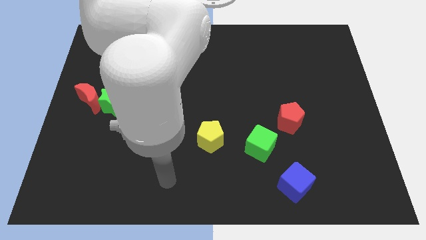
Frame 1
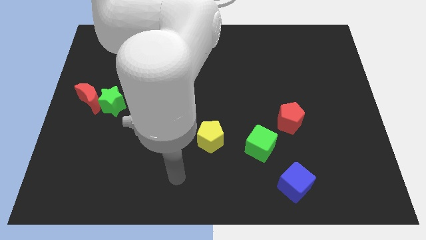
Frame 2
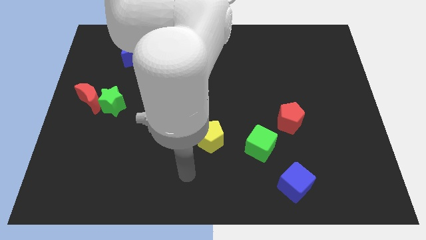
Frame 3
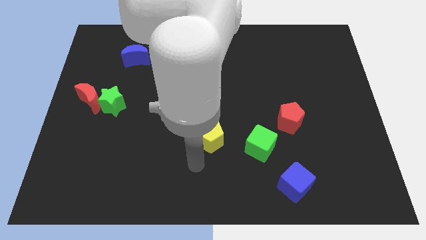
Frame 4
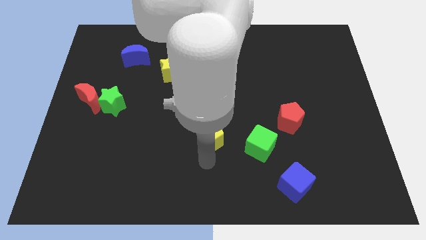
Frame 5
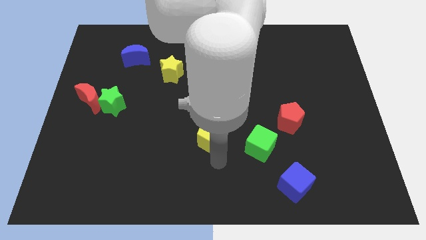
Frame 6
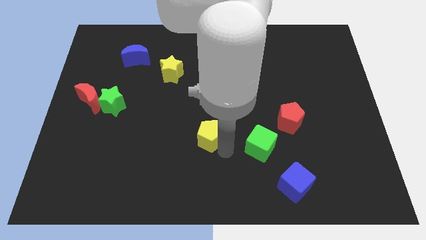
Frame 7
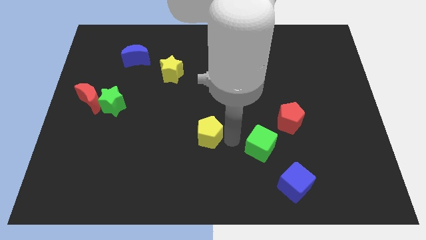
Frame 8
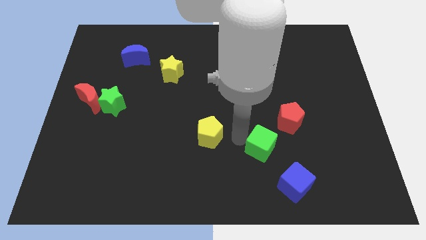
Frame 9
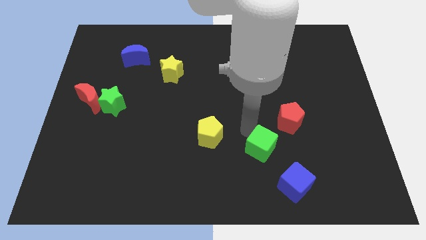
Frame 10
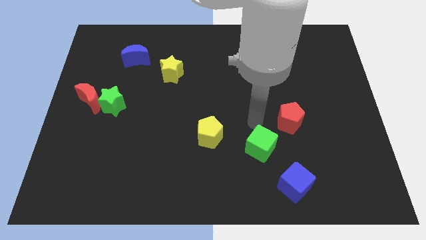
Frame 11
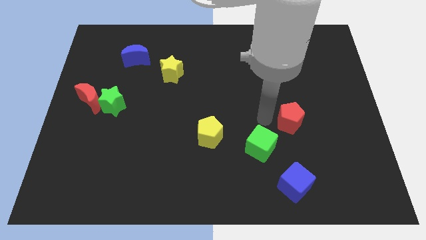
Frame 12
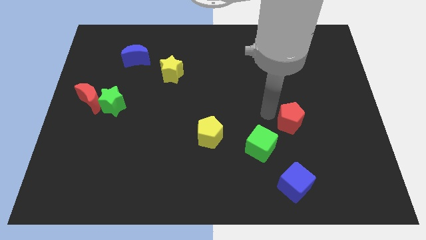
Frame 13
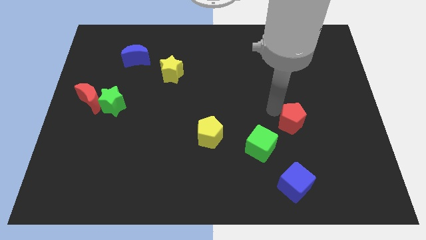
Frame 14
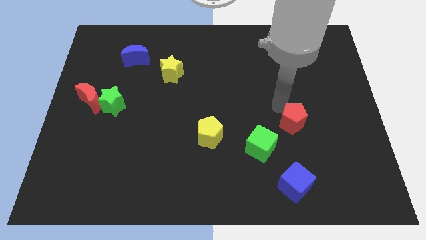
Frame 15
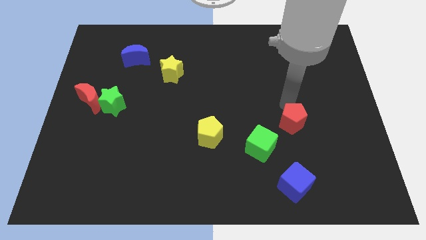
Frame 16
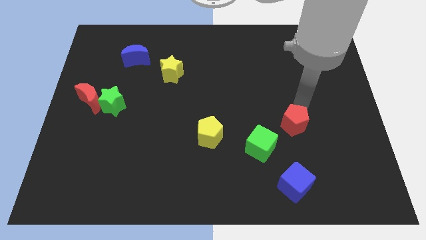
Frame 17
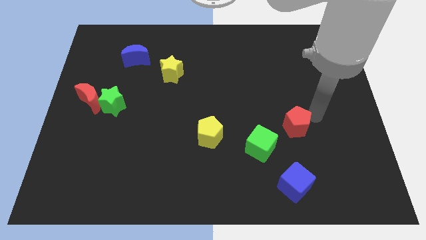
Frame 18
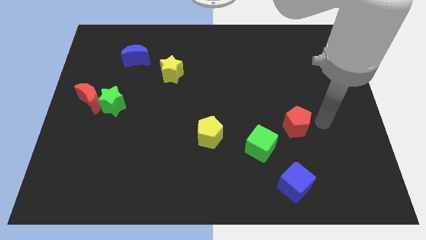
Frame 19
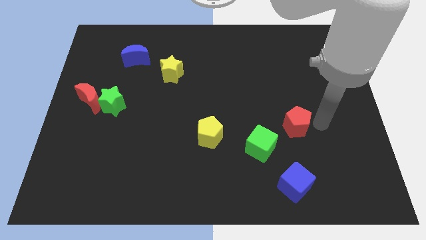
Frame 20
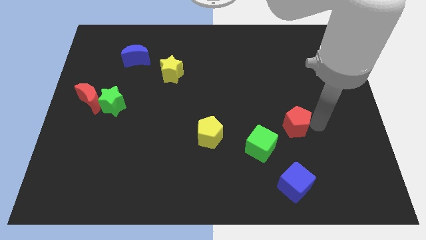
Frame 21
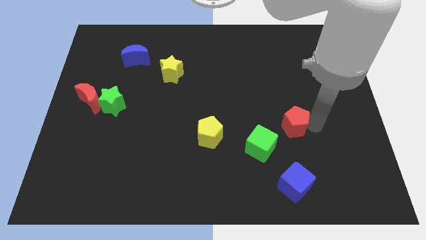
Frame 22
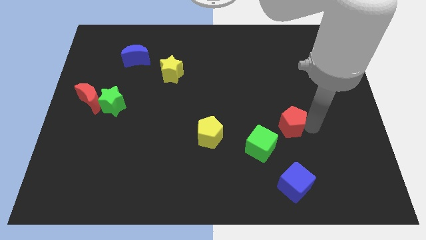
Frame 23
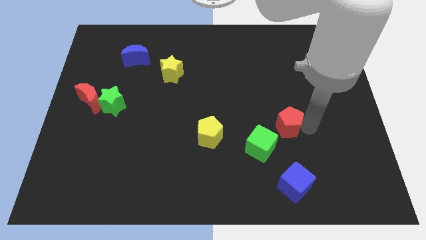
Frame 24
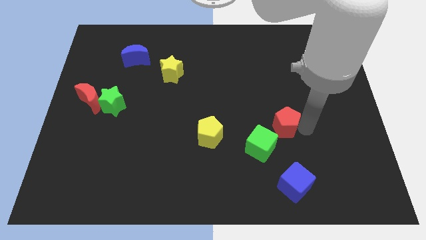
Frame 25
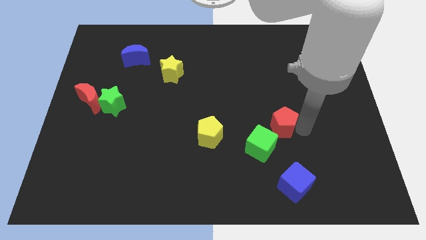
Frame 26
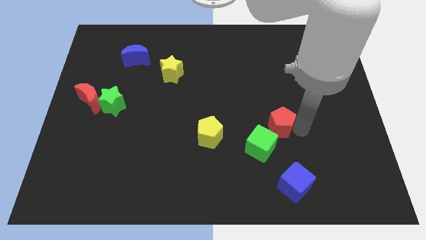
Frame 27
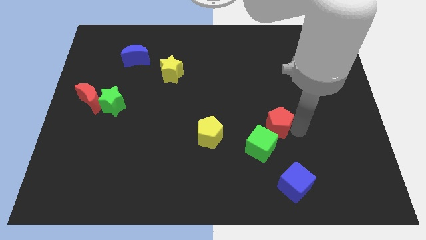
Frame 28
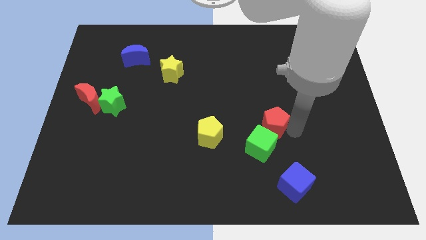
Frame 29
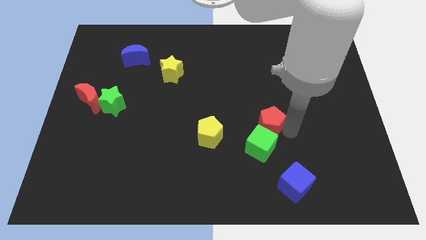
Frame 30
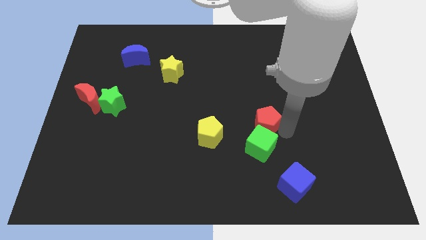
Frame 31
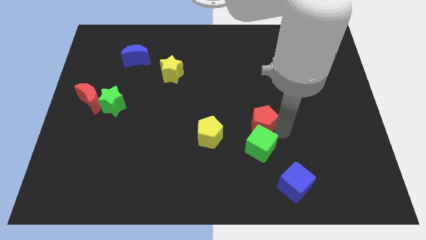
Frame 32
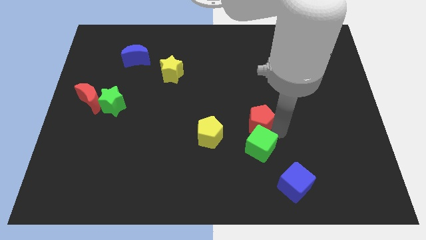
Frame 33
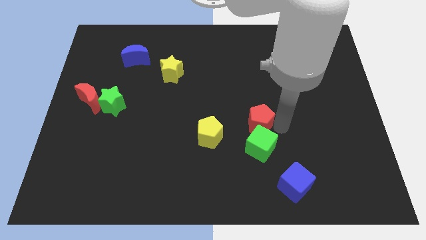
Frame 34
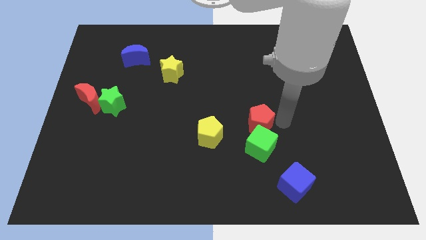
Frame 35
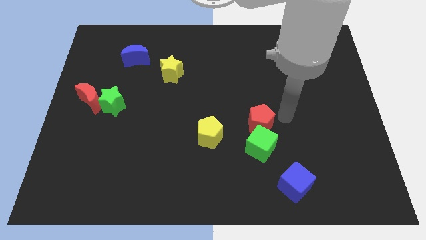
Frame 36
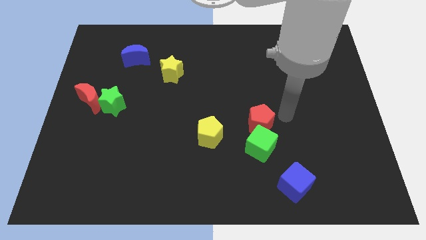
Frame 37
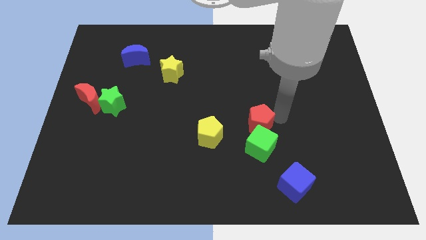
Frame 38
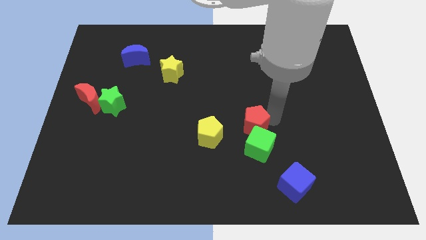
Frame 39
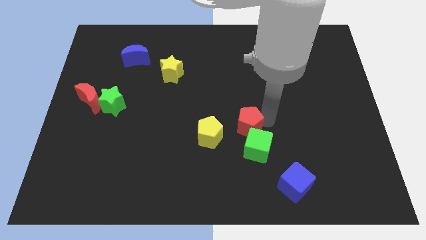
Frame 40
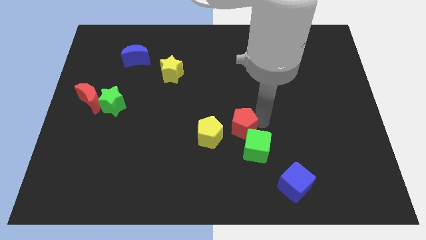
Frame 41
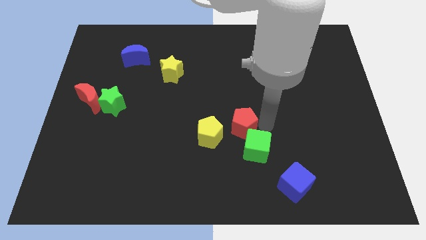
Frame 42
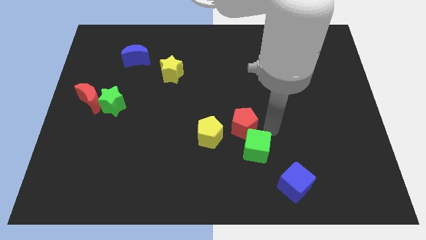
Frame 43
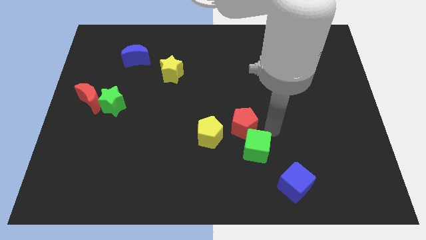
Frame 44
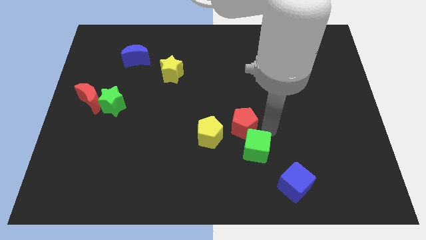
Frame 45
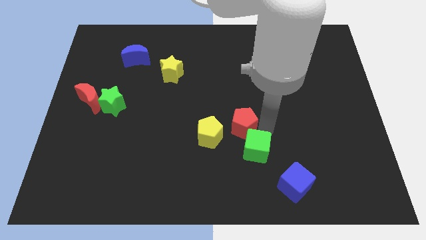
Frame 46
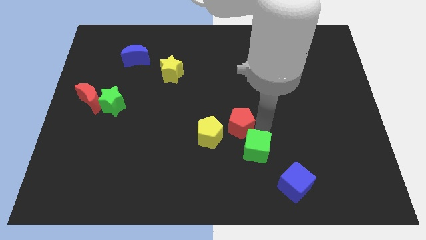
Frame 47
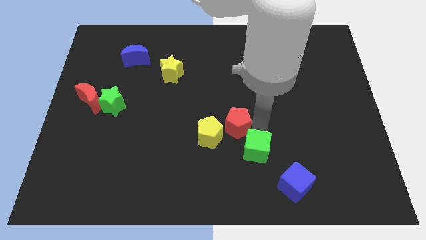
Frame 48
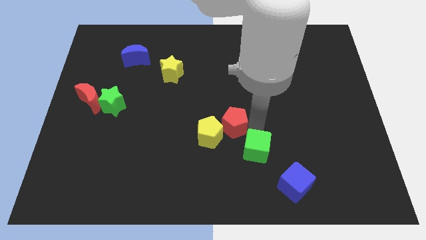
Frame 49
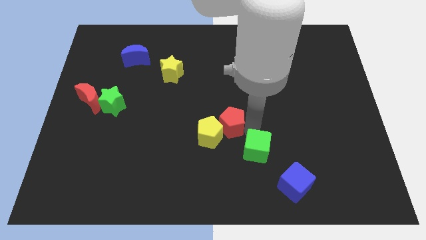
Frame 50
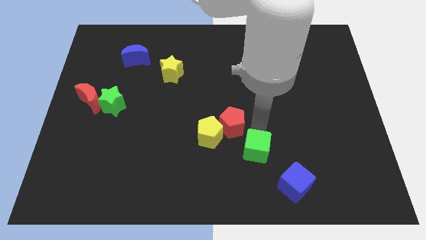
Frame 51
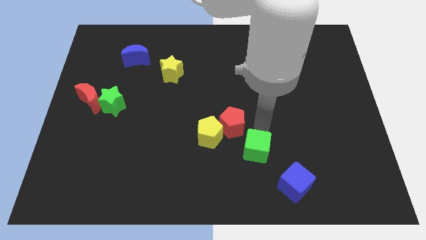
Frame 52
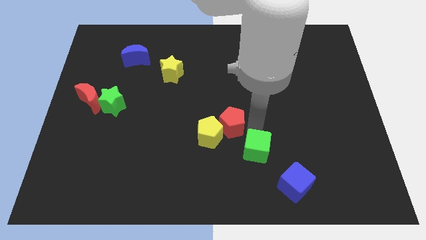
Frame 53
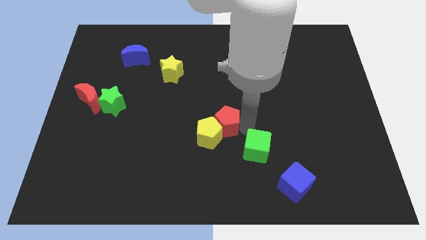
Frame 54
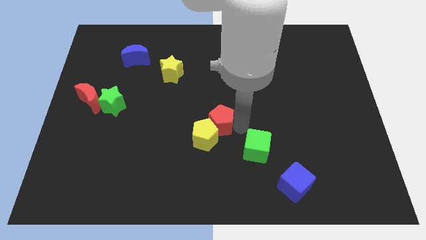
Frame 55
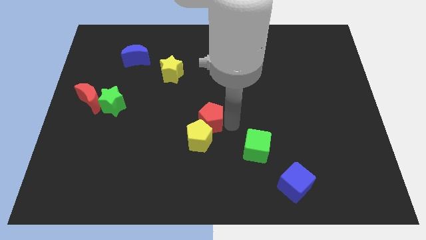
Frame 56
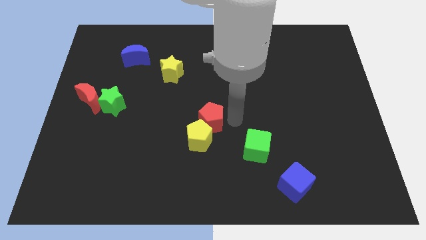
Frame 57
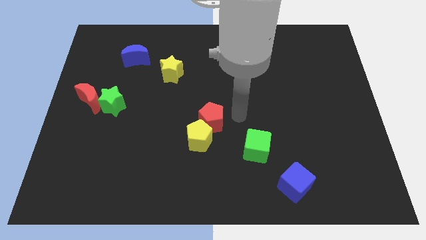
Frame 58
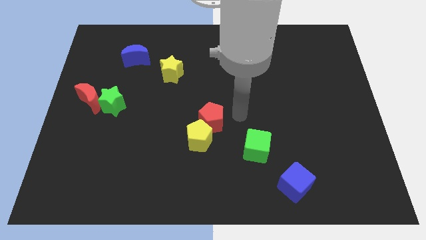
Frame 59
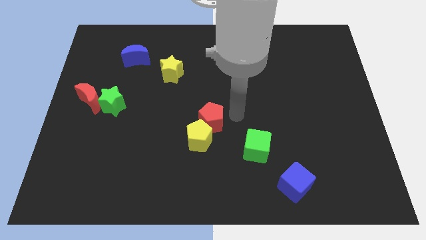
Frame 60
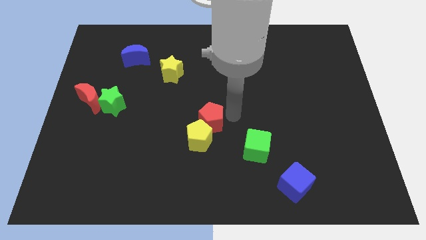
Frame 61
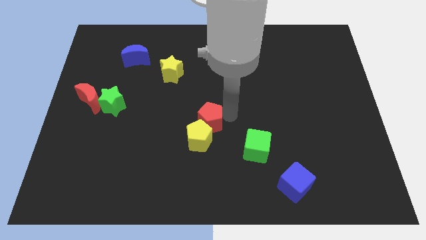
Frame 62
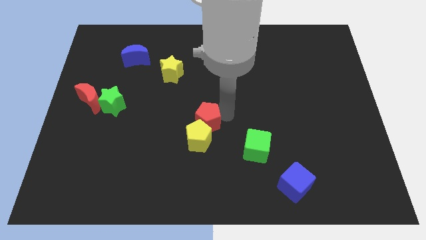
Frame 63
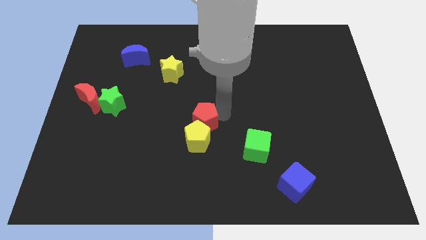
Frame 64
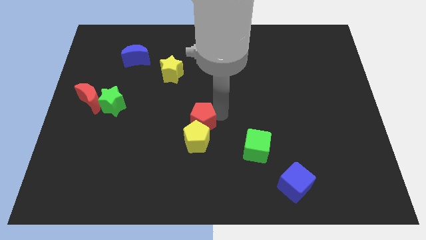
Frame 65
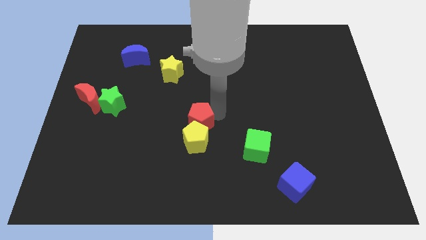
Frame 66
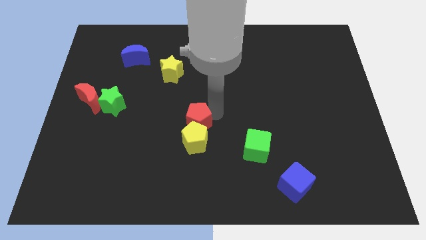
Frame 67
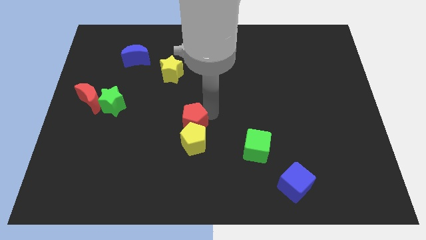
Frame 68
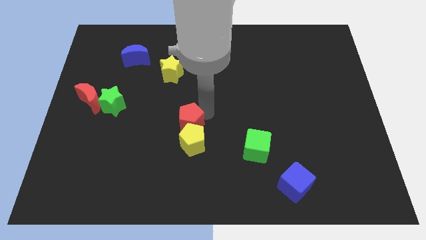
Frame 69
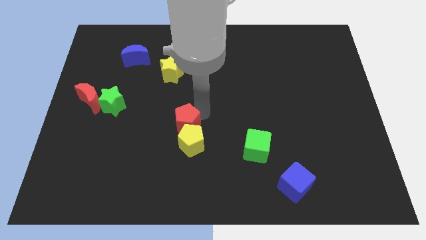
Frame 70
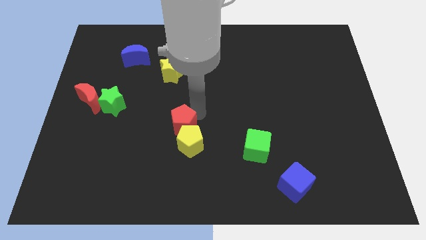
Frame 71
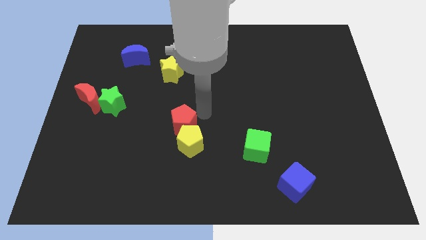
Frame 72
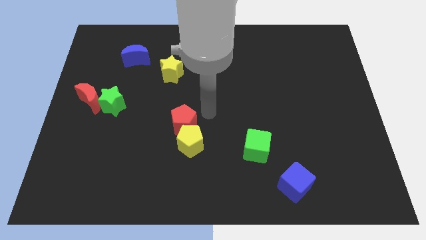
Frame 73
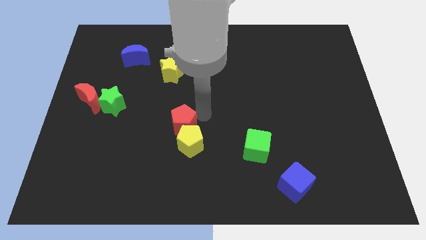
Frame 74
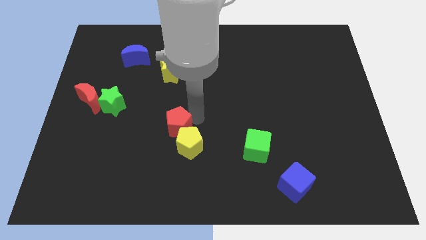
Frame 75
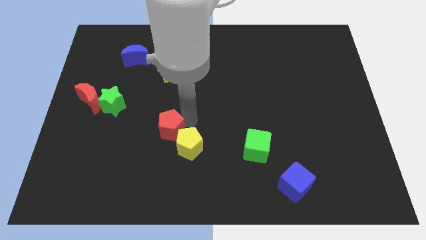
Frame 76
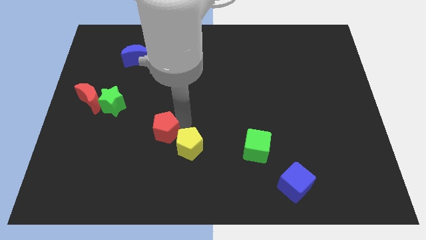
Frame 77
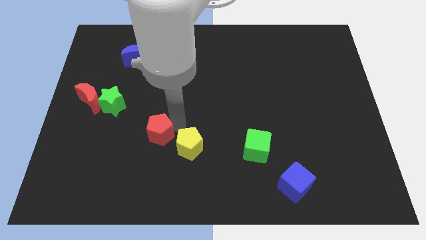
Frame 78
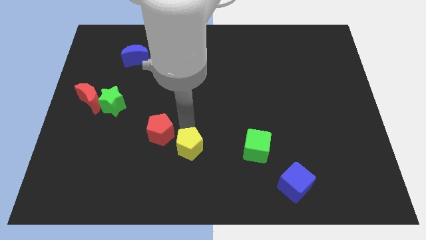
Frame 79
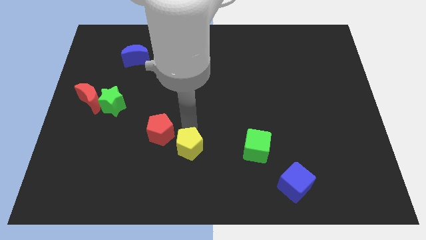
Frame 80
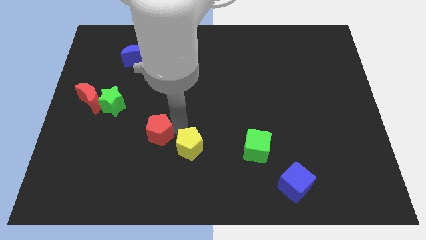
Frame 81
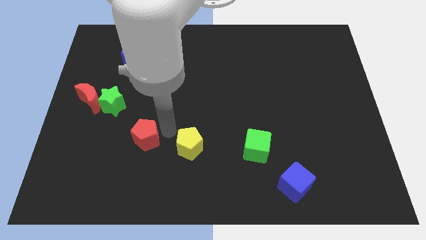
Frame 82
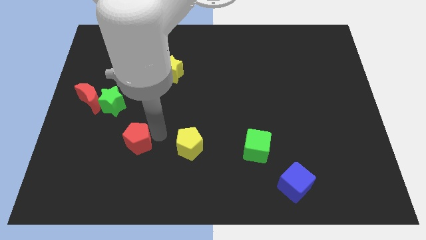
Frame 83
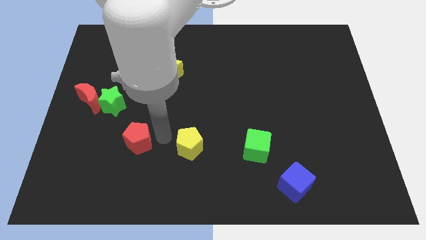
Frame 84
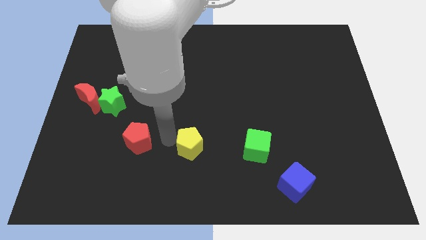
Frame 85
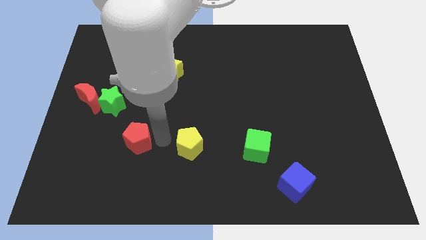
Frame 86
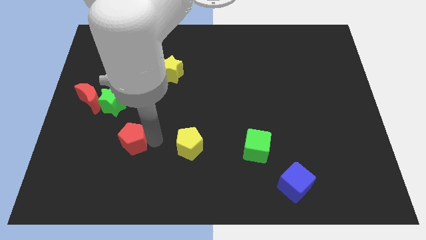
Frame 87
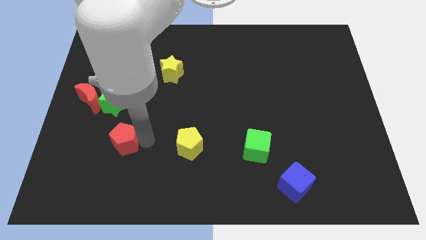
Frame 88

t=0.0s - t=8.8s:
push the red pentagon below the green star
